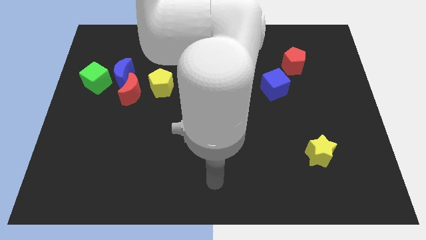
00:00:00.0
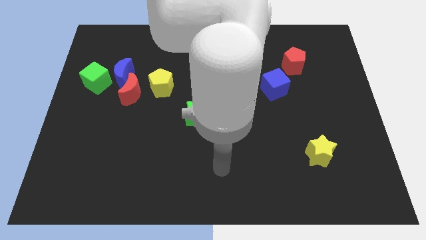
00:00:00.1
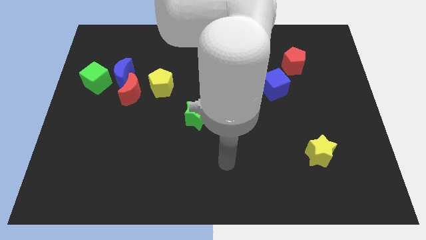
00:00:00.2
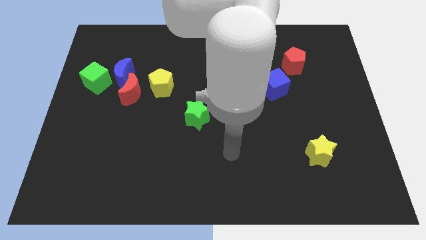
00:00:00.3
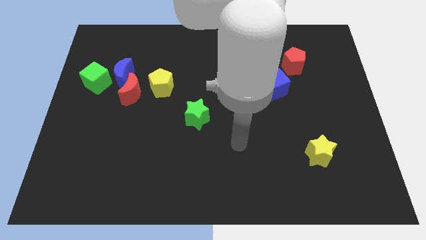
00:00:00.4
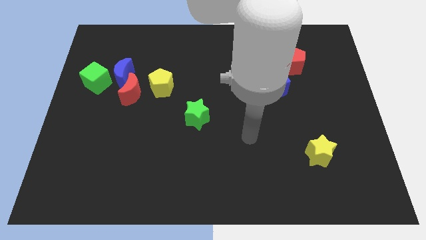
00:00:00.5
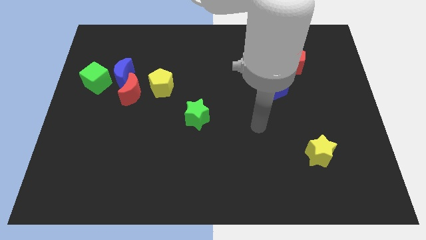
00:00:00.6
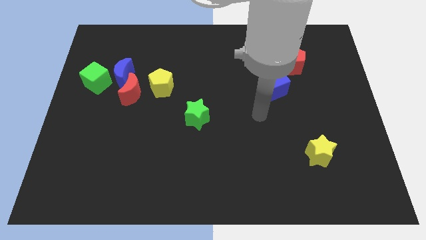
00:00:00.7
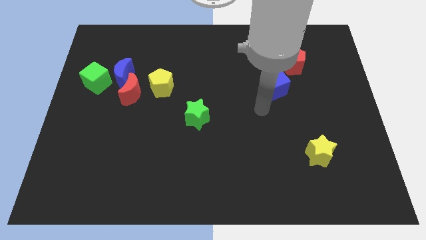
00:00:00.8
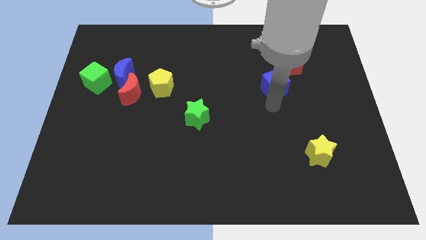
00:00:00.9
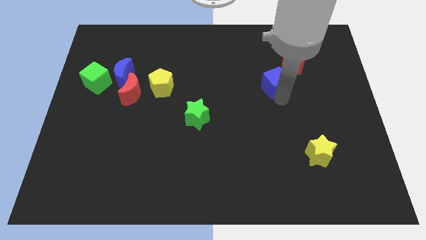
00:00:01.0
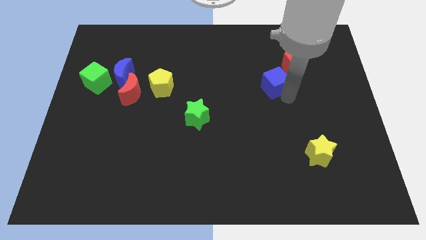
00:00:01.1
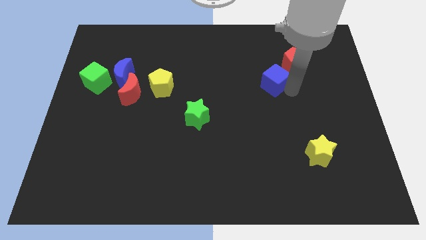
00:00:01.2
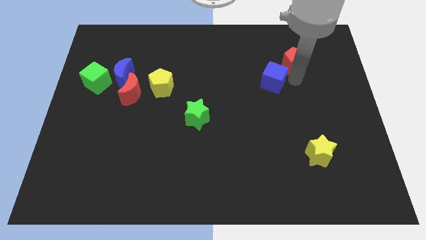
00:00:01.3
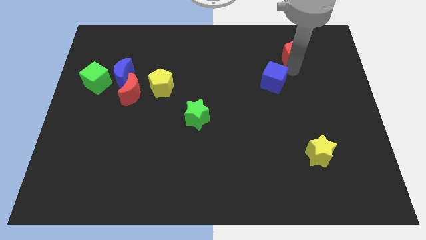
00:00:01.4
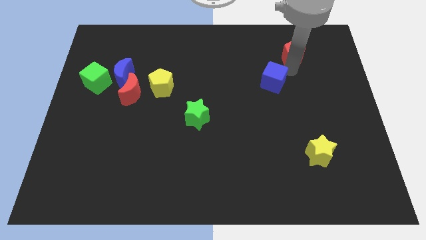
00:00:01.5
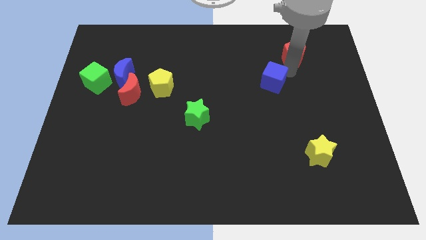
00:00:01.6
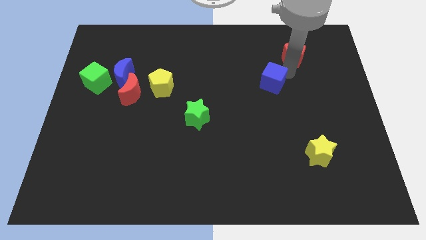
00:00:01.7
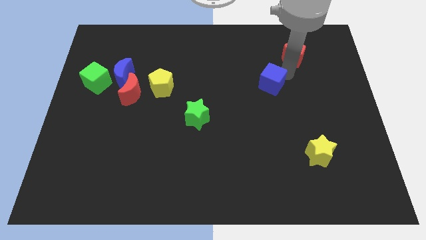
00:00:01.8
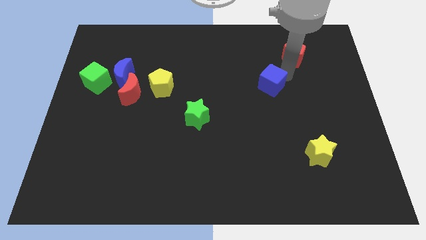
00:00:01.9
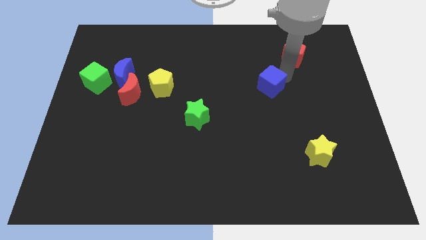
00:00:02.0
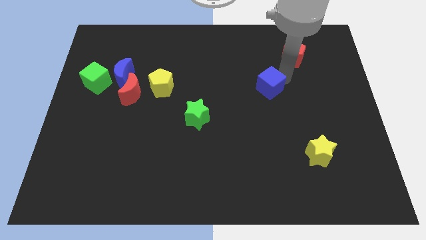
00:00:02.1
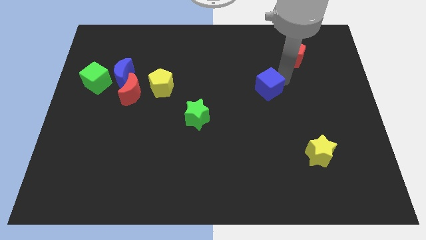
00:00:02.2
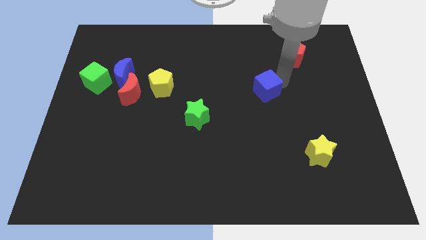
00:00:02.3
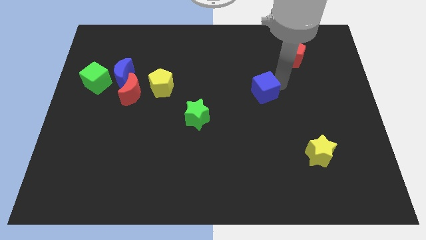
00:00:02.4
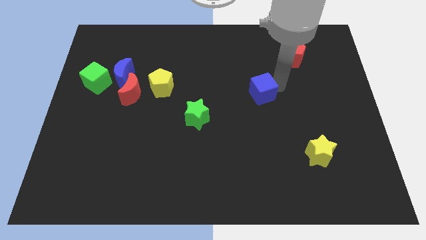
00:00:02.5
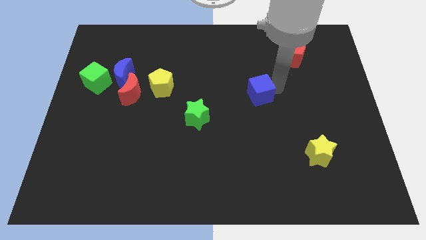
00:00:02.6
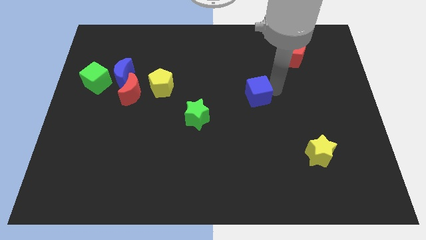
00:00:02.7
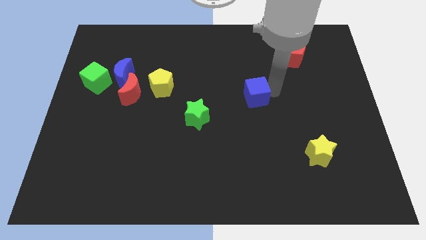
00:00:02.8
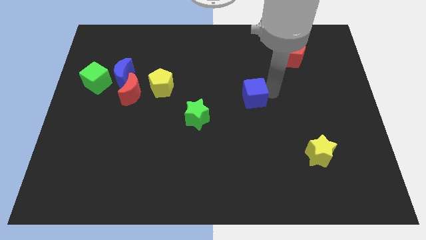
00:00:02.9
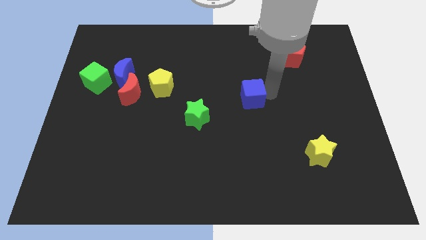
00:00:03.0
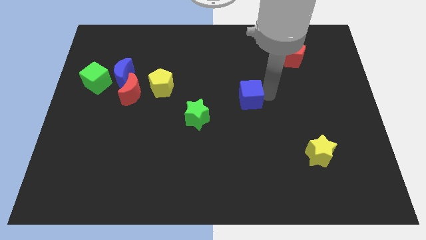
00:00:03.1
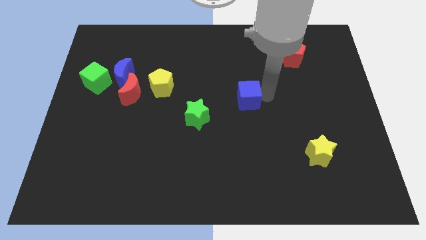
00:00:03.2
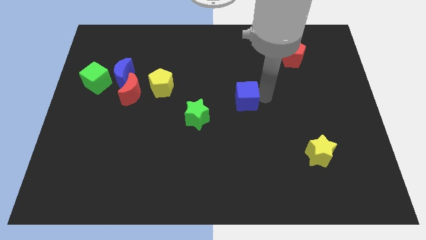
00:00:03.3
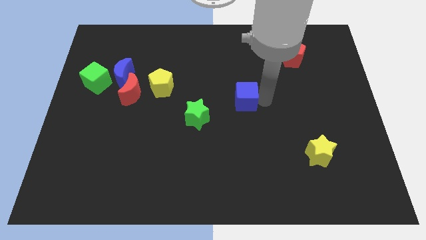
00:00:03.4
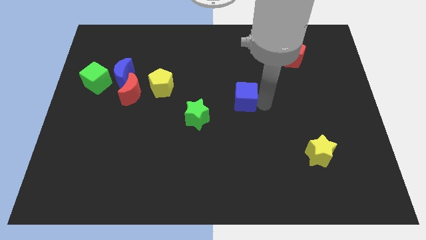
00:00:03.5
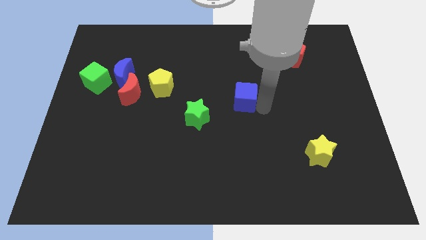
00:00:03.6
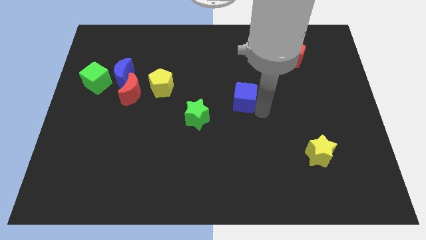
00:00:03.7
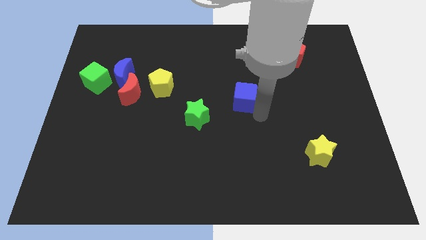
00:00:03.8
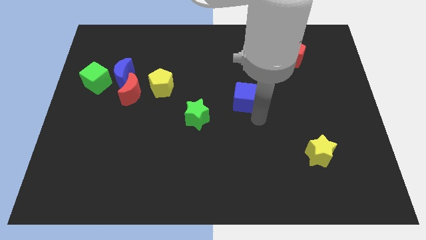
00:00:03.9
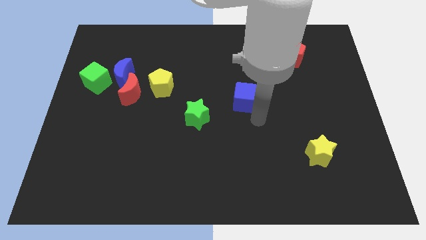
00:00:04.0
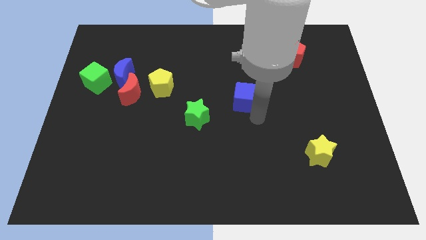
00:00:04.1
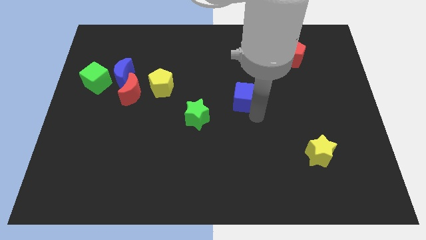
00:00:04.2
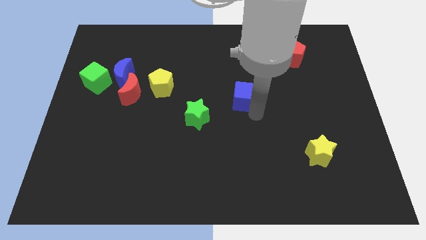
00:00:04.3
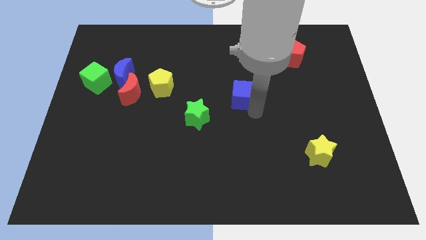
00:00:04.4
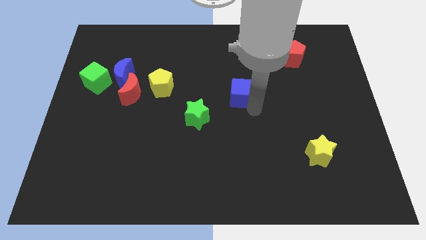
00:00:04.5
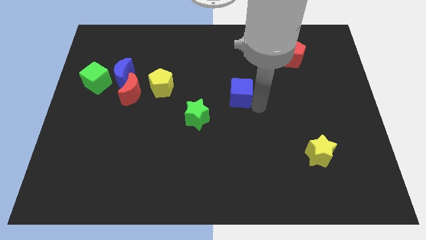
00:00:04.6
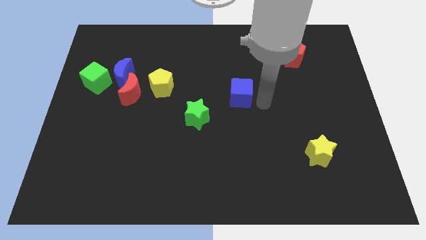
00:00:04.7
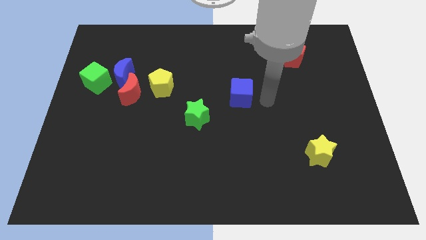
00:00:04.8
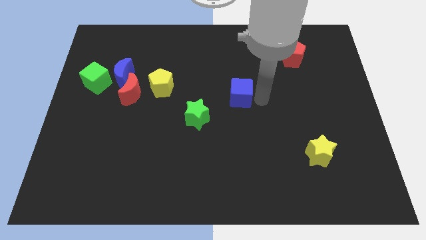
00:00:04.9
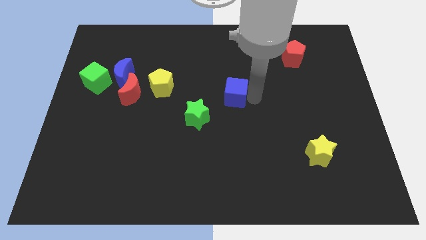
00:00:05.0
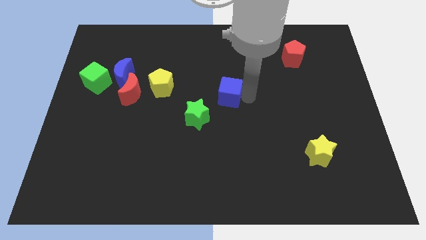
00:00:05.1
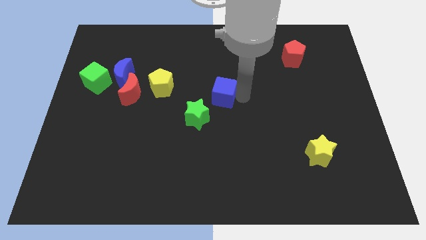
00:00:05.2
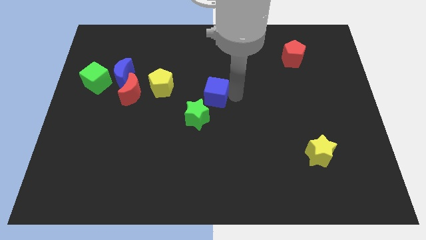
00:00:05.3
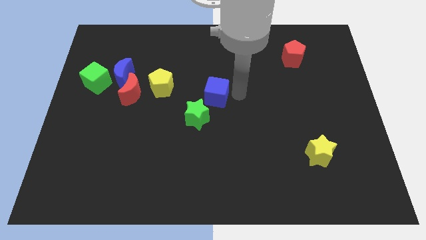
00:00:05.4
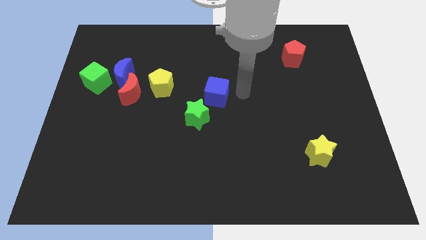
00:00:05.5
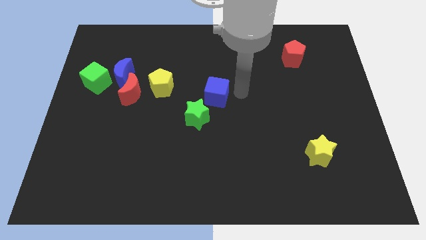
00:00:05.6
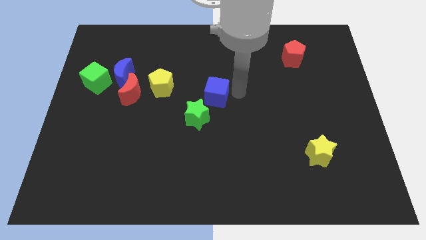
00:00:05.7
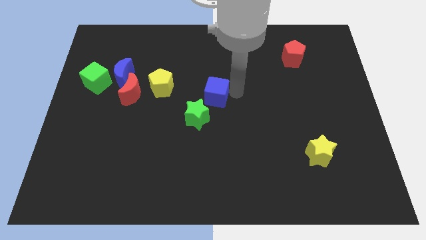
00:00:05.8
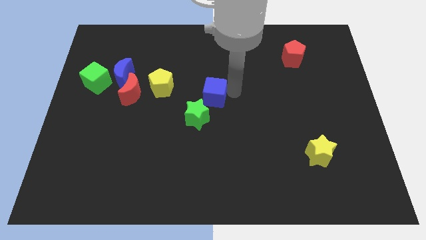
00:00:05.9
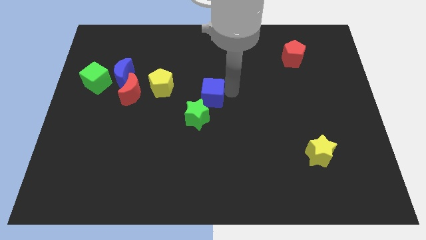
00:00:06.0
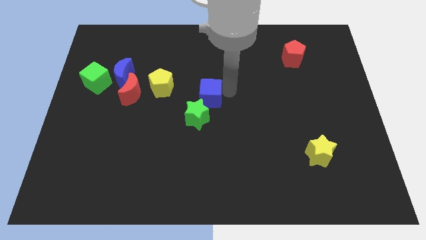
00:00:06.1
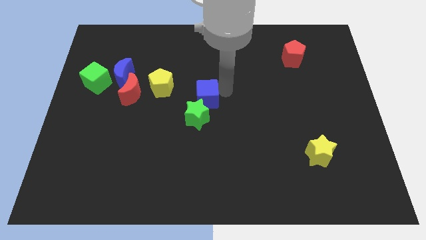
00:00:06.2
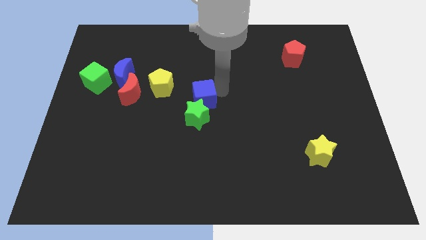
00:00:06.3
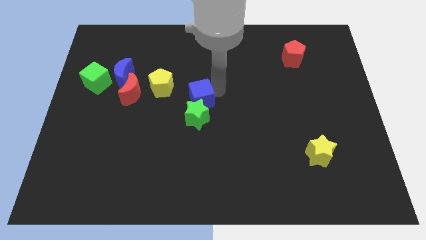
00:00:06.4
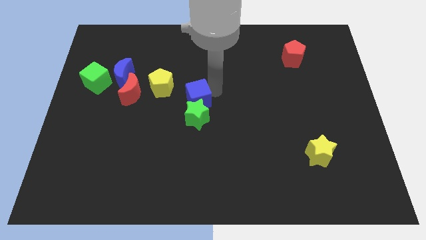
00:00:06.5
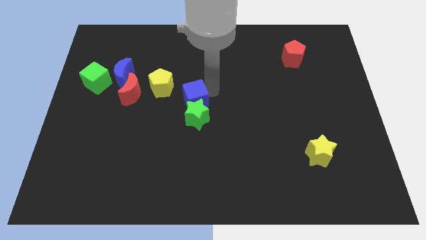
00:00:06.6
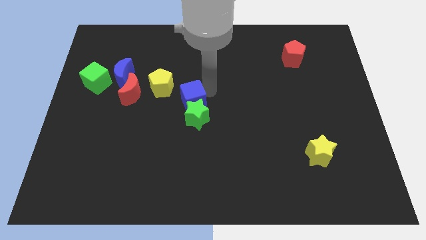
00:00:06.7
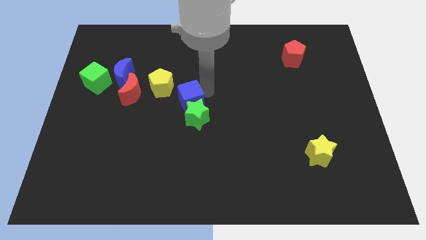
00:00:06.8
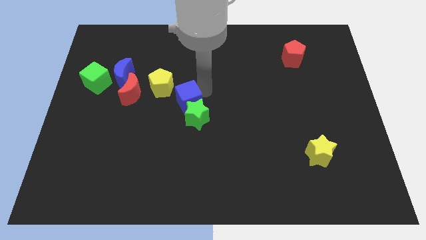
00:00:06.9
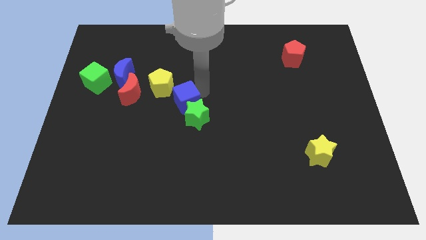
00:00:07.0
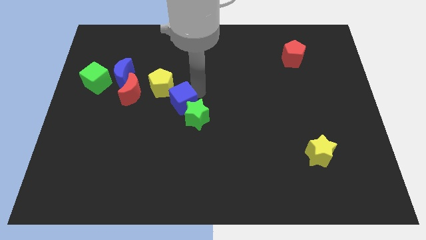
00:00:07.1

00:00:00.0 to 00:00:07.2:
move the blue cube to the left side of the green star
